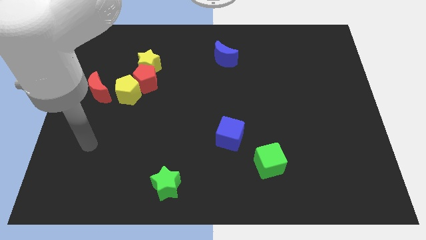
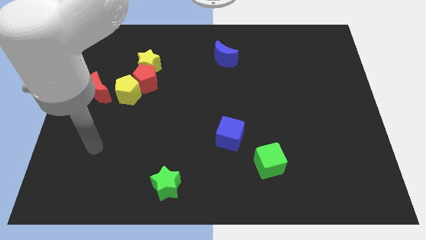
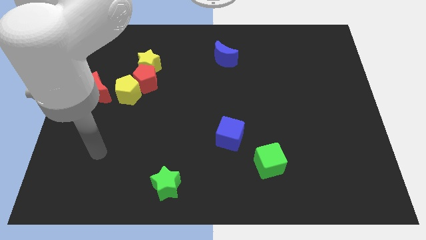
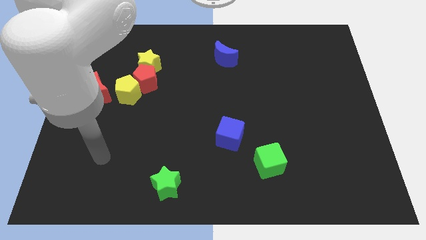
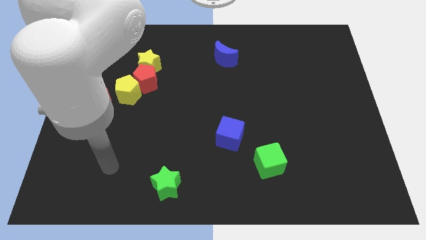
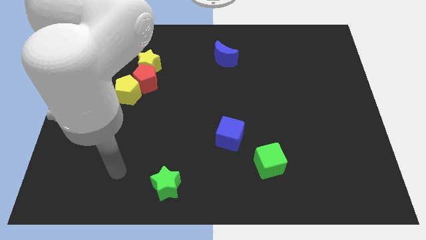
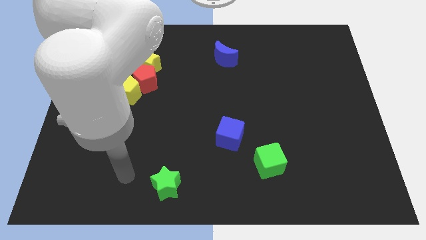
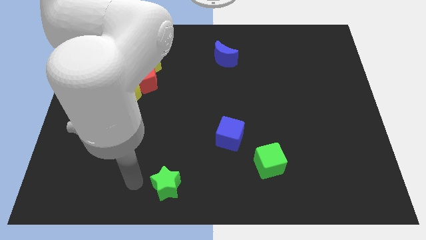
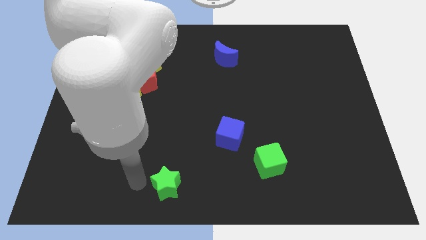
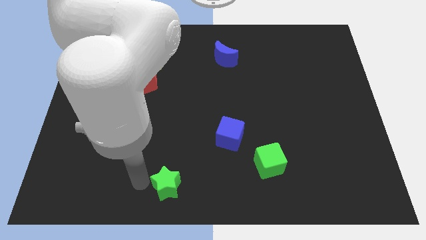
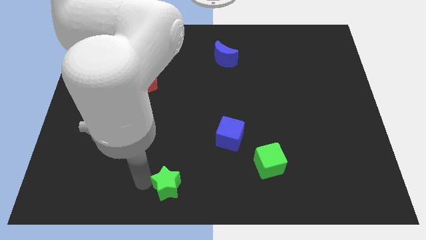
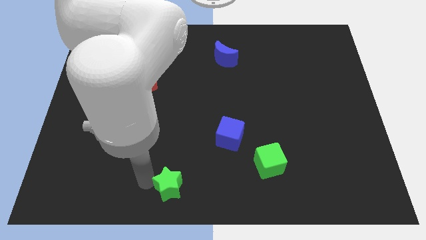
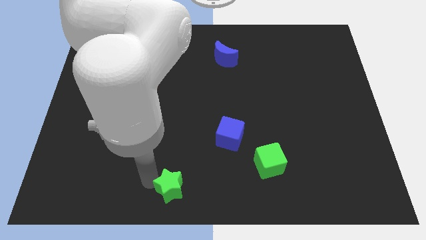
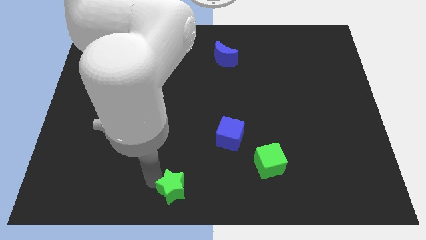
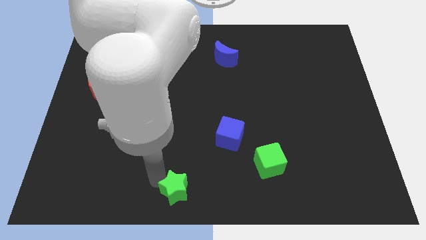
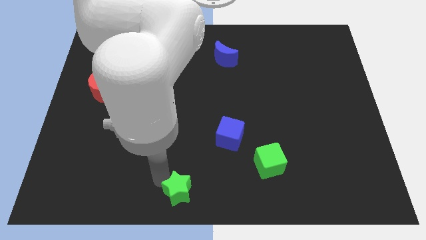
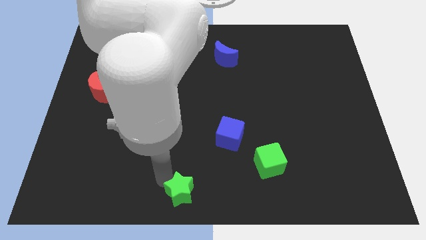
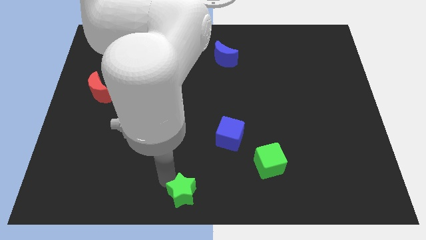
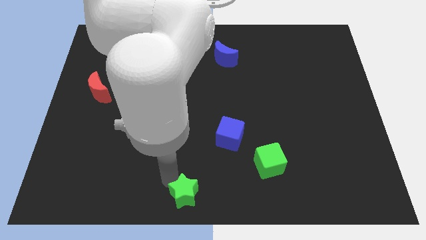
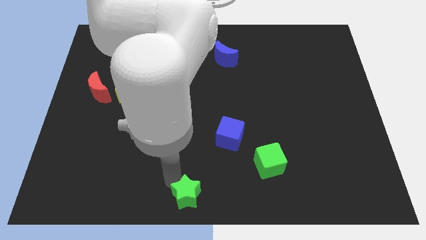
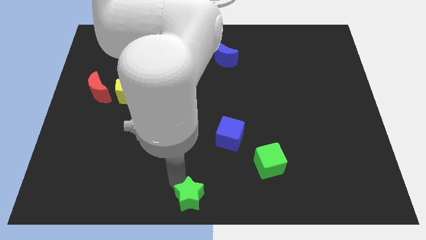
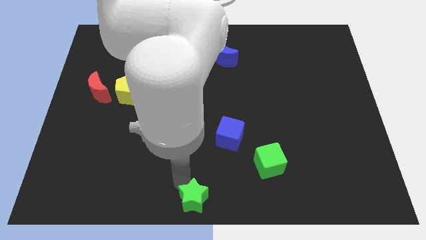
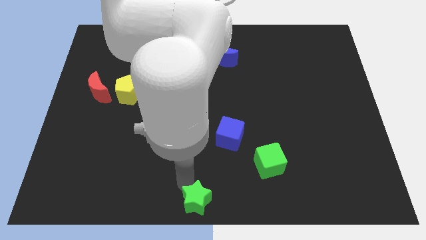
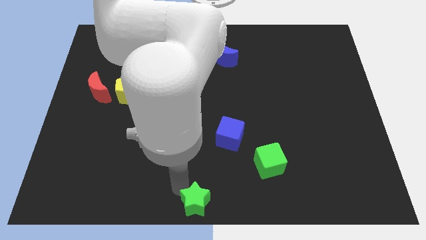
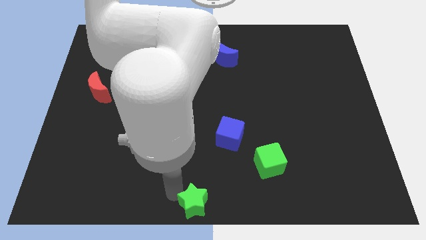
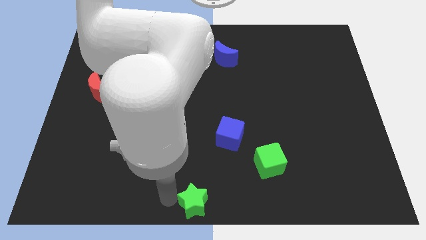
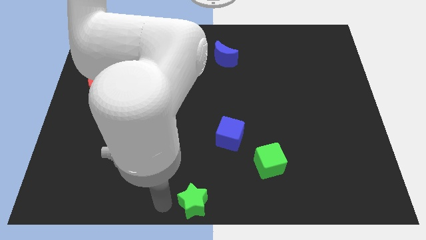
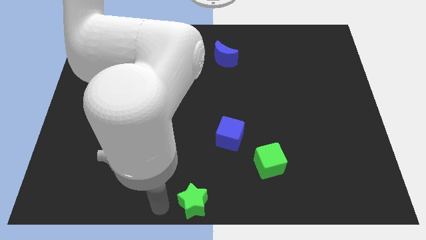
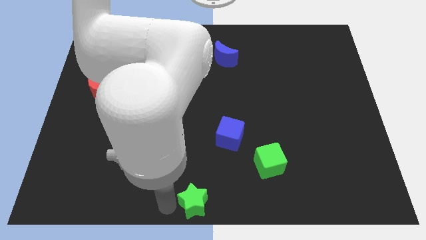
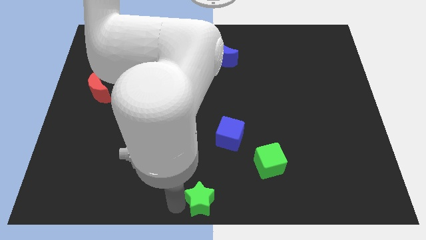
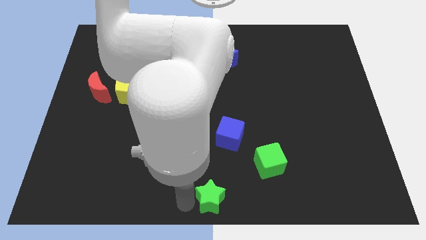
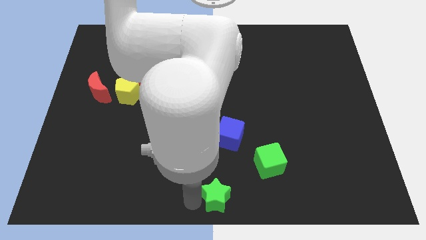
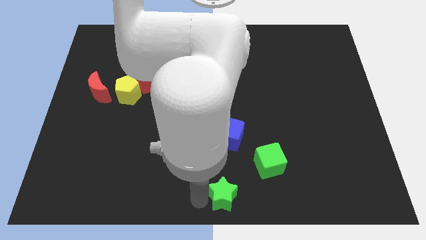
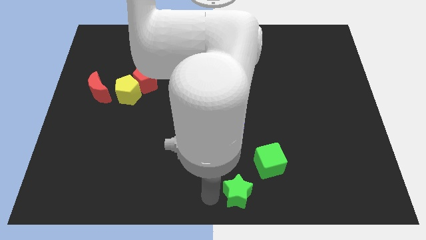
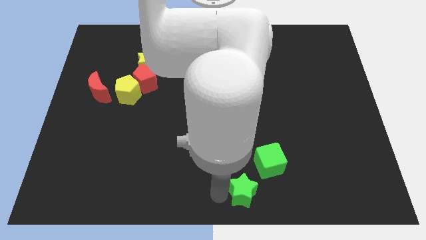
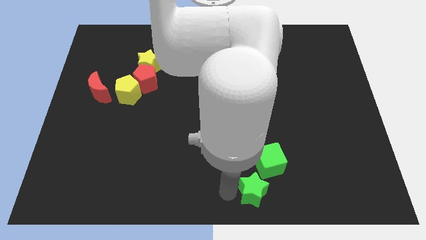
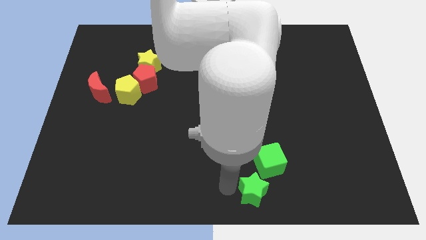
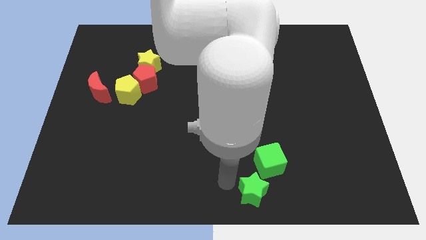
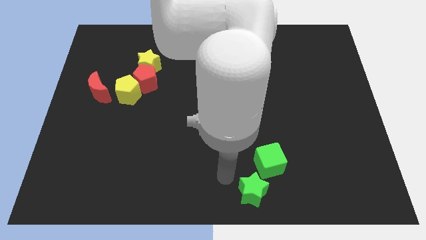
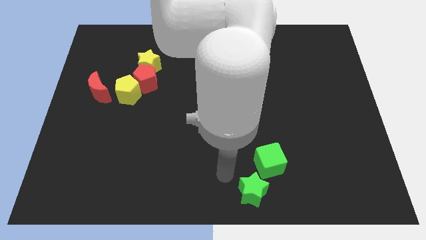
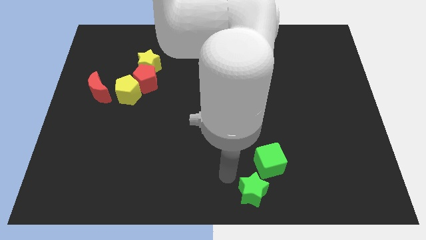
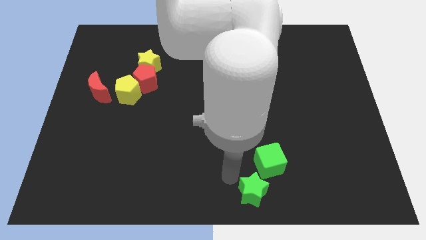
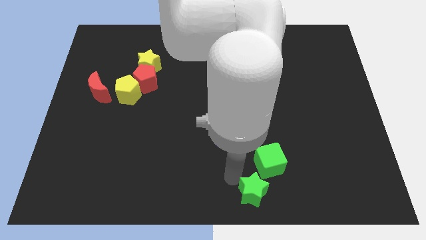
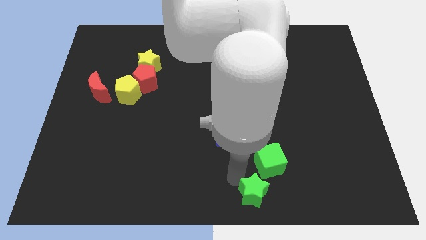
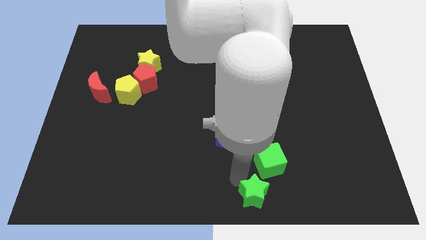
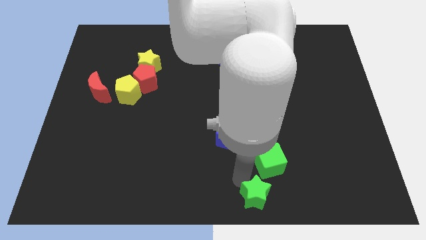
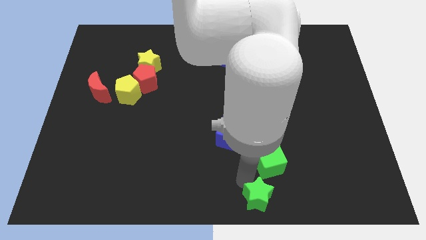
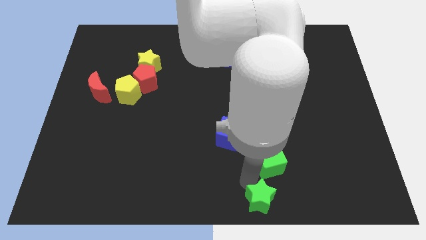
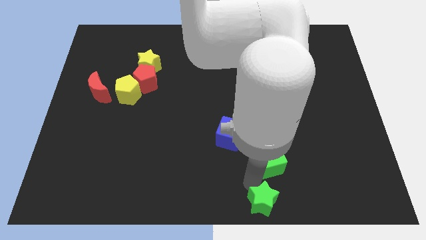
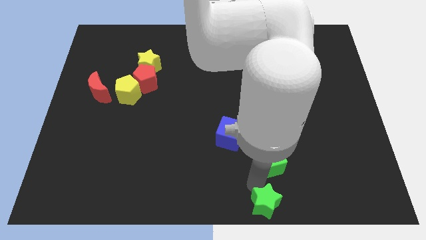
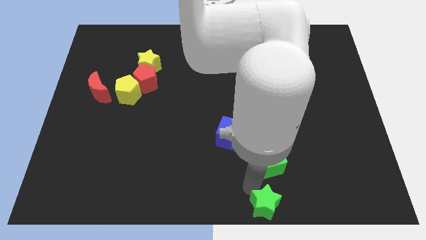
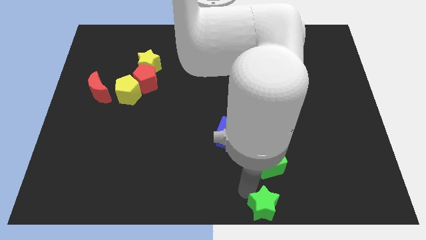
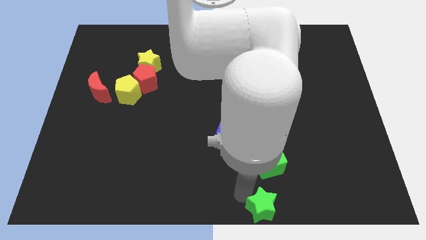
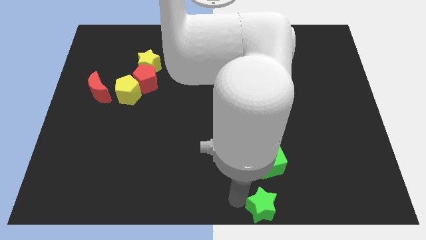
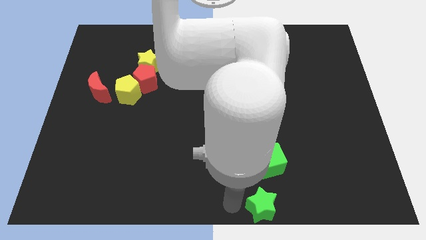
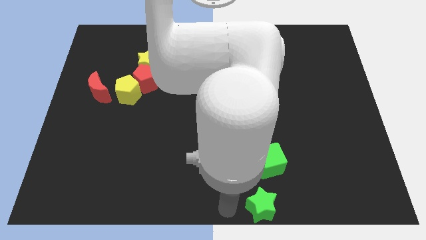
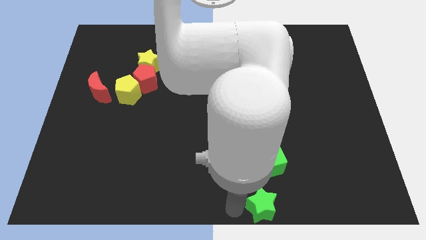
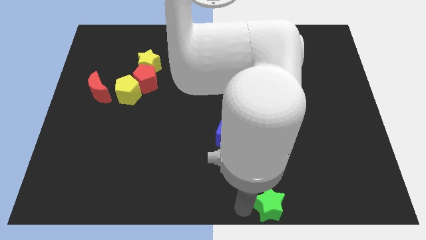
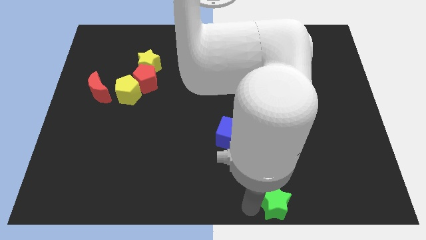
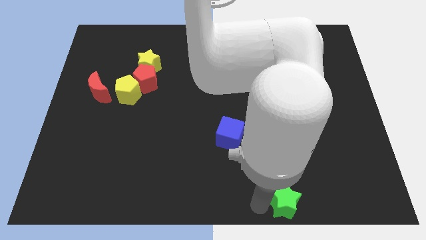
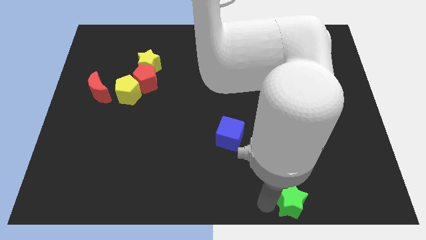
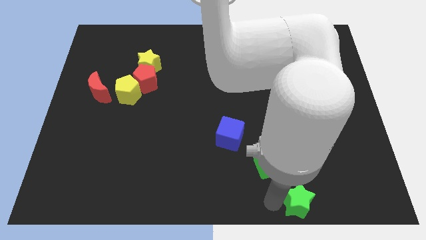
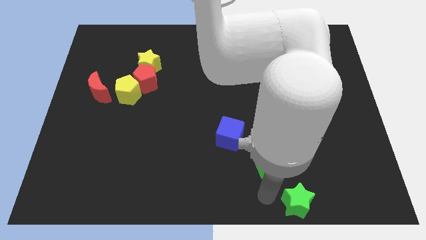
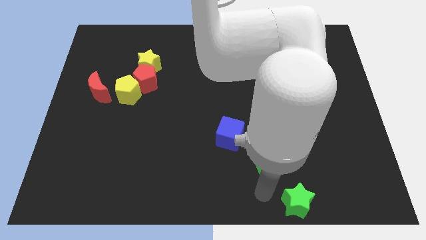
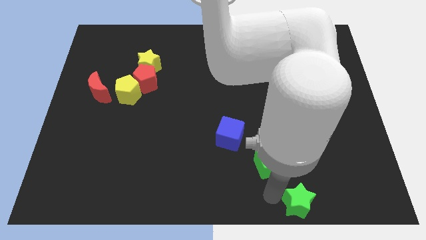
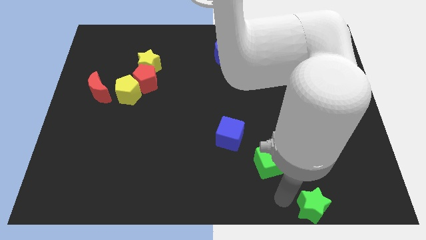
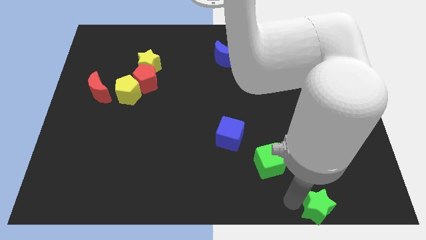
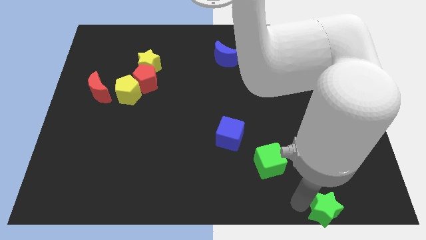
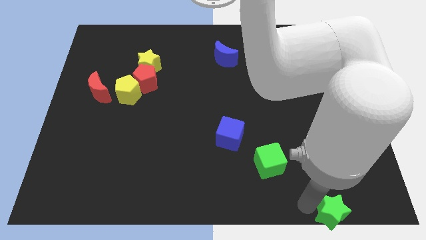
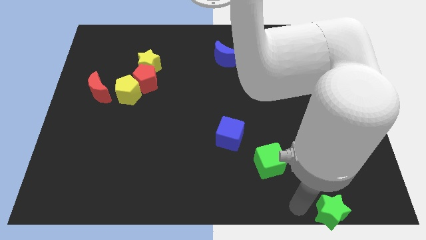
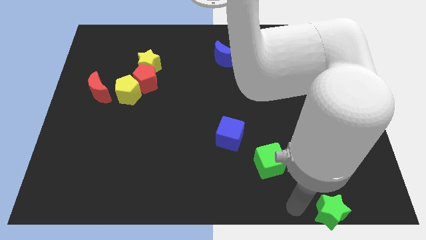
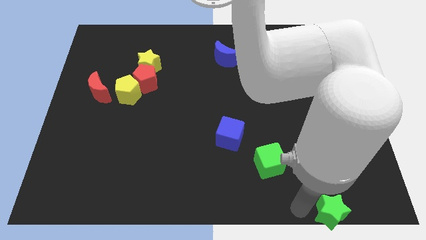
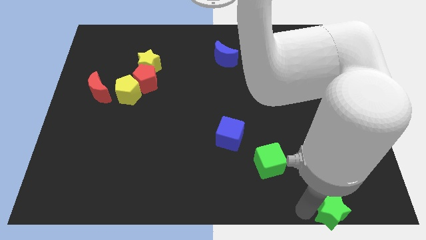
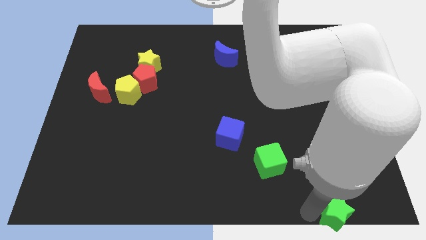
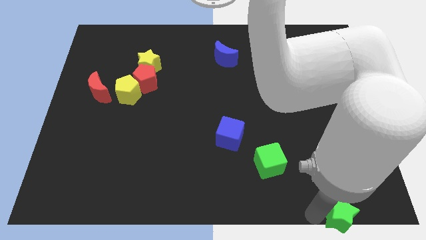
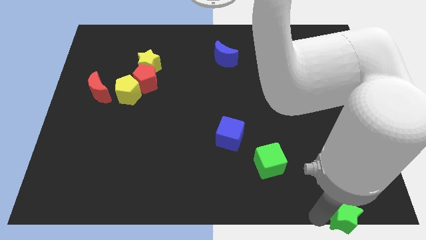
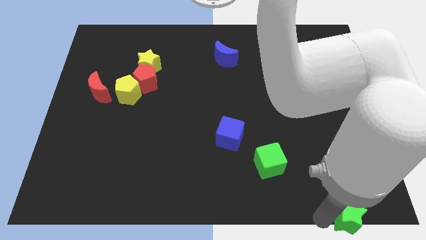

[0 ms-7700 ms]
push the green star to the bottom right corner
